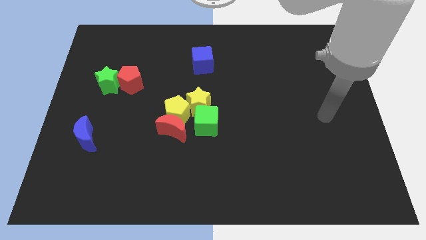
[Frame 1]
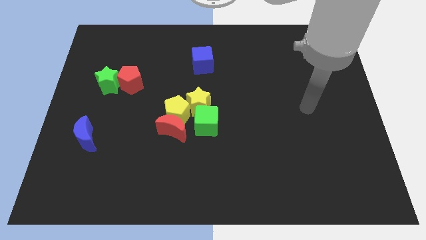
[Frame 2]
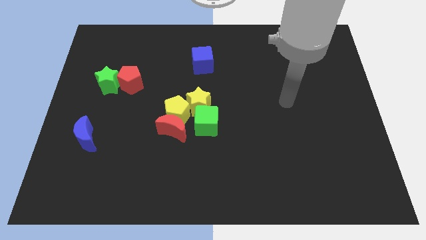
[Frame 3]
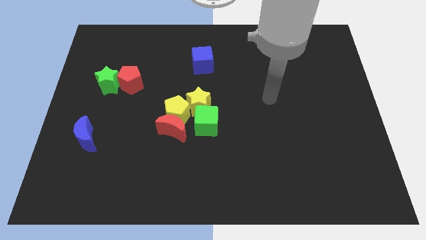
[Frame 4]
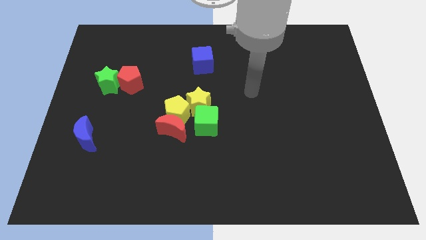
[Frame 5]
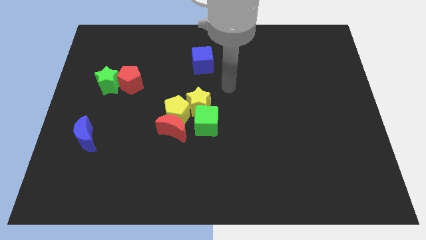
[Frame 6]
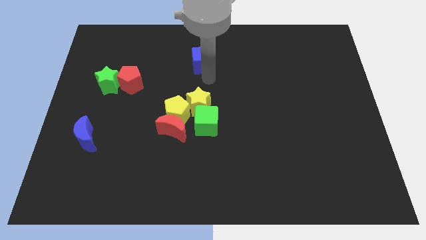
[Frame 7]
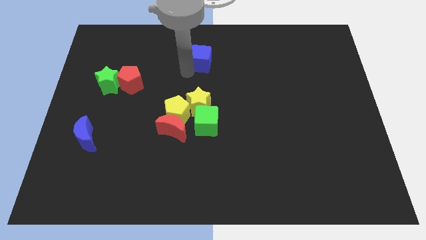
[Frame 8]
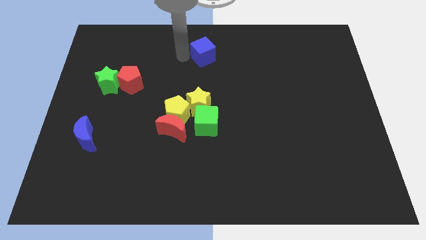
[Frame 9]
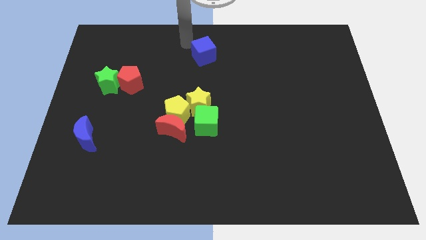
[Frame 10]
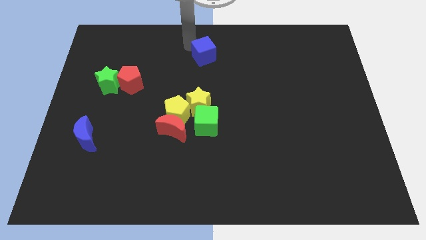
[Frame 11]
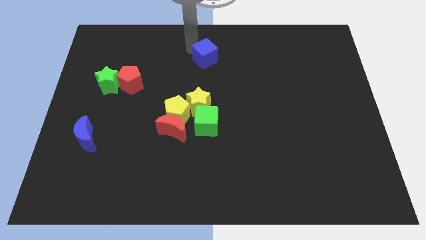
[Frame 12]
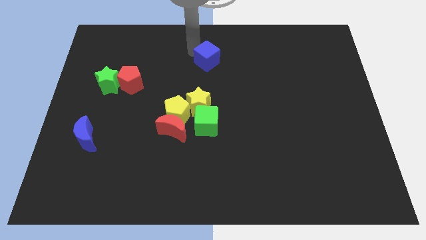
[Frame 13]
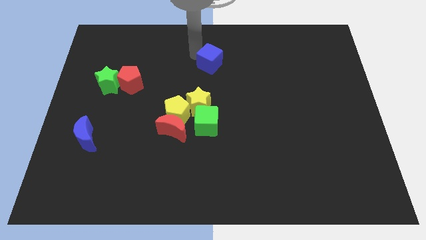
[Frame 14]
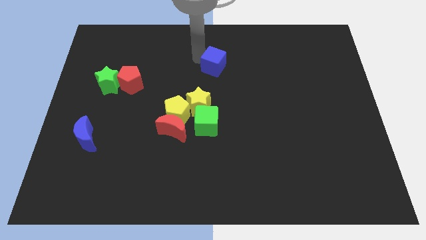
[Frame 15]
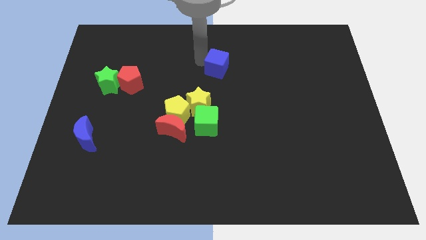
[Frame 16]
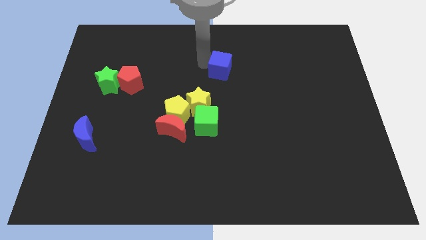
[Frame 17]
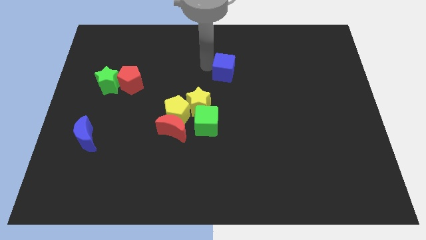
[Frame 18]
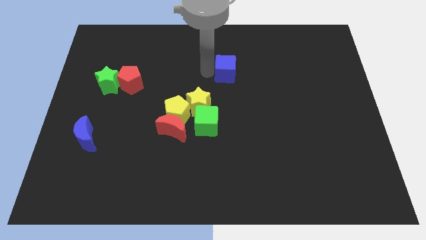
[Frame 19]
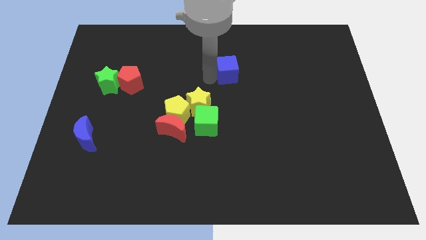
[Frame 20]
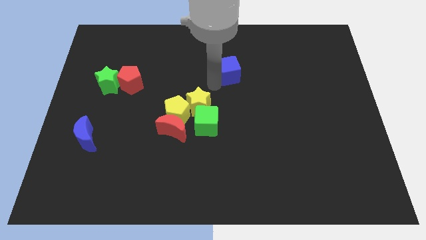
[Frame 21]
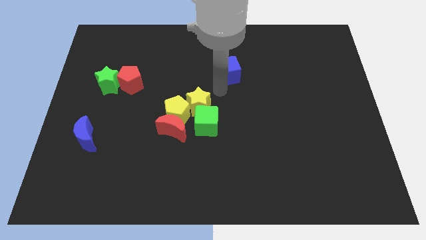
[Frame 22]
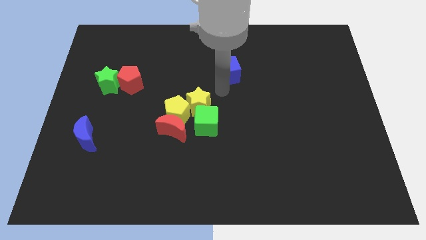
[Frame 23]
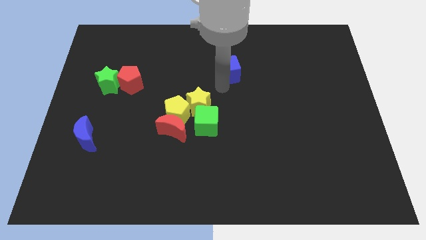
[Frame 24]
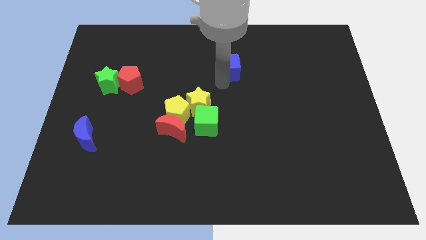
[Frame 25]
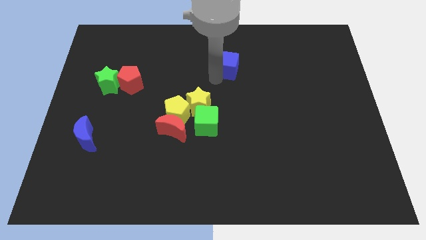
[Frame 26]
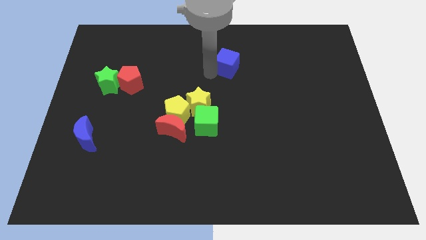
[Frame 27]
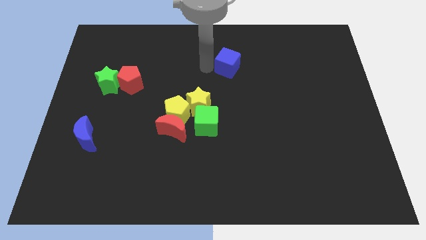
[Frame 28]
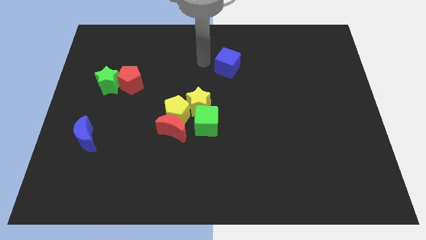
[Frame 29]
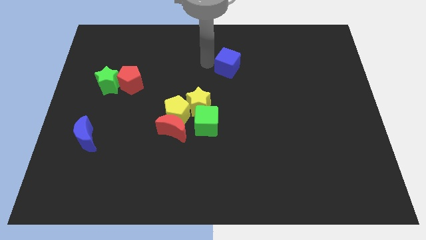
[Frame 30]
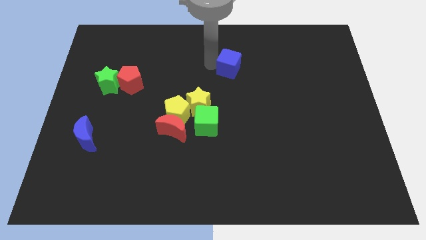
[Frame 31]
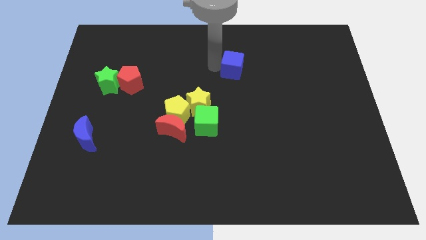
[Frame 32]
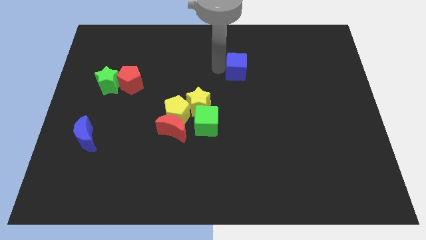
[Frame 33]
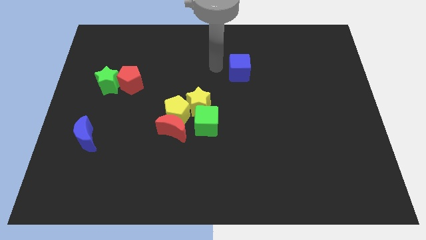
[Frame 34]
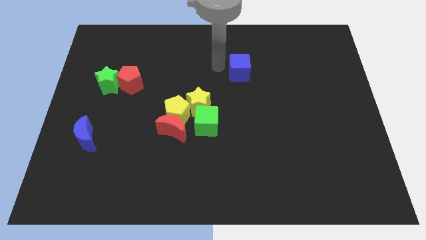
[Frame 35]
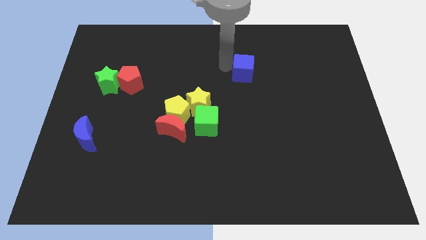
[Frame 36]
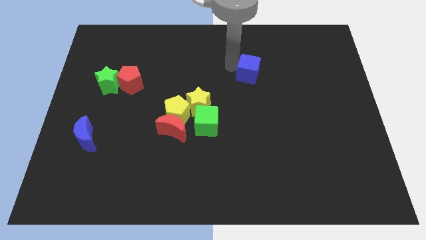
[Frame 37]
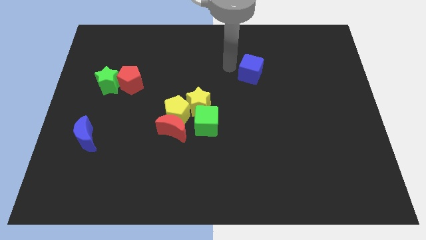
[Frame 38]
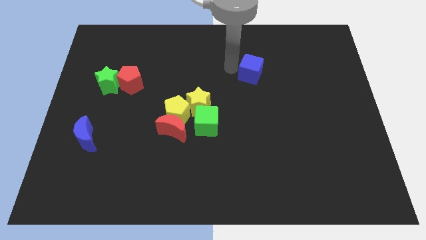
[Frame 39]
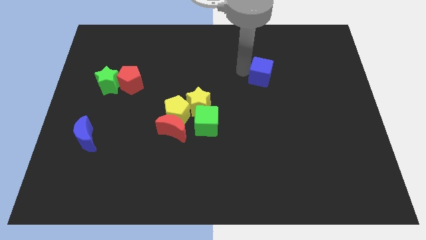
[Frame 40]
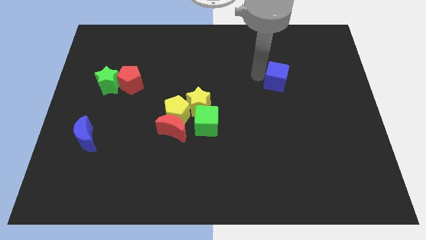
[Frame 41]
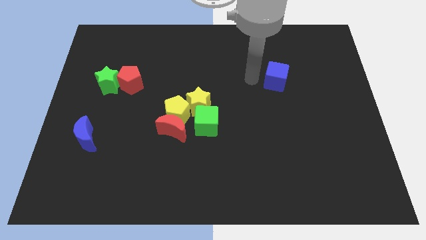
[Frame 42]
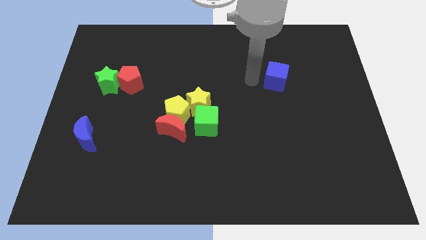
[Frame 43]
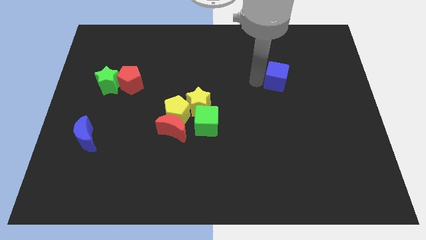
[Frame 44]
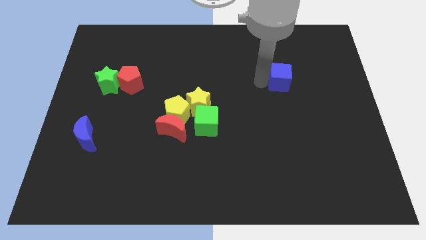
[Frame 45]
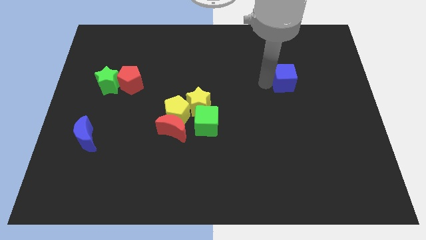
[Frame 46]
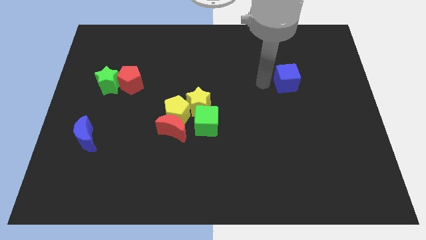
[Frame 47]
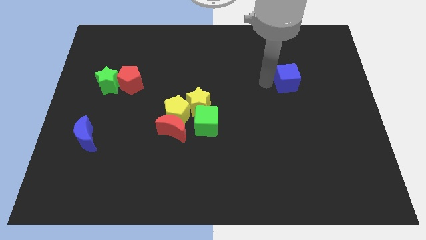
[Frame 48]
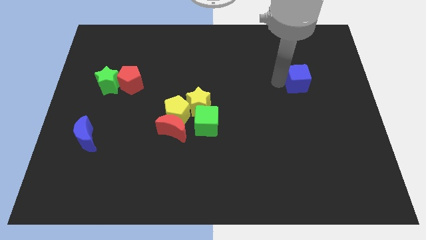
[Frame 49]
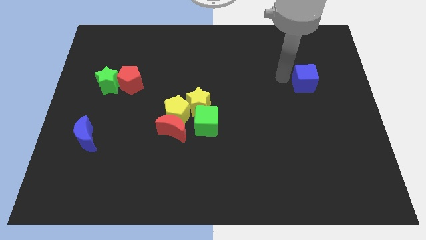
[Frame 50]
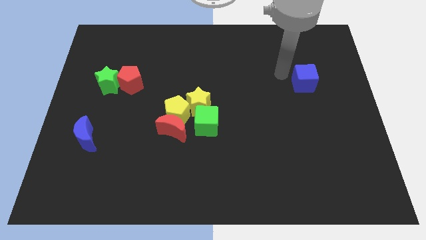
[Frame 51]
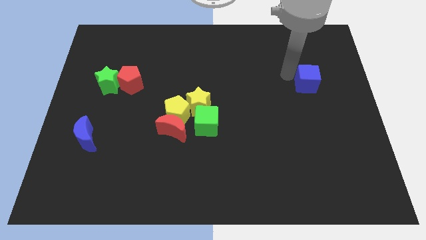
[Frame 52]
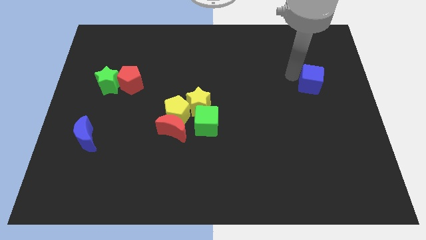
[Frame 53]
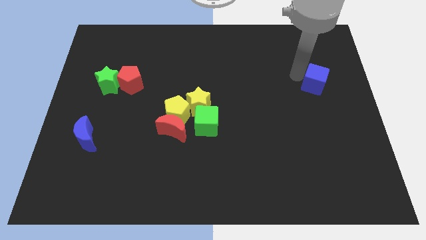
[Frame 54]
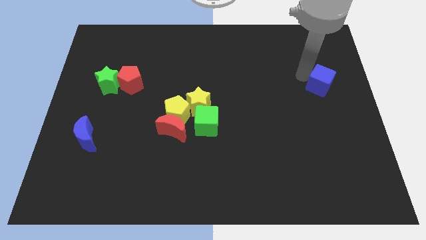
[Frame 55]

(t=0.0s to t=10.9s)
move the blue cube to the right side of the board

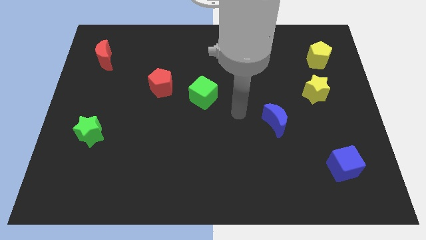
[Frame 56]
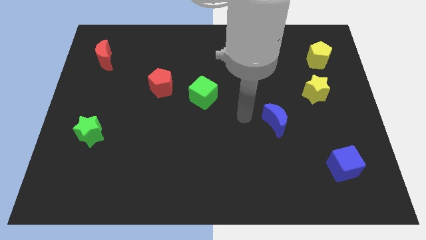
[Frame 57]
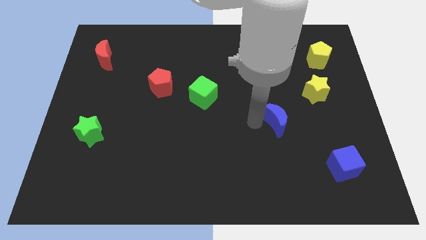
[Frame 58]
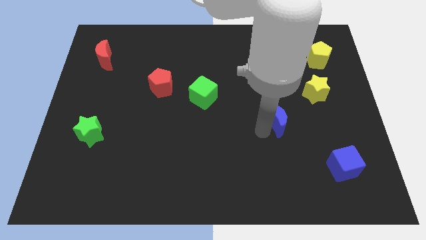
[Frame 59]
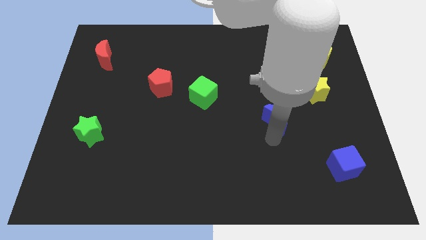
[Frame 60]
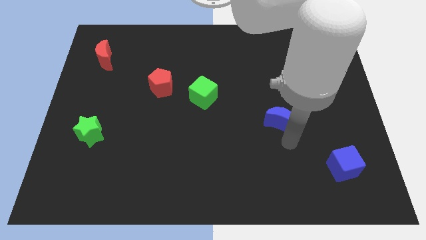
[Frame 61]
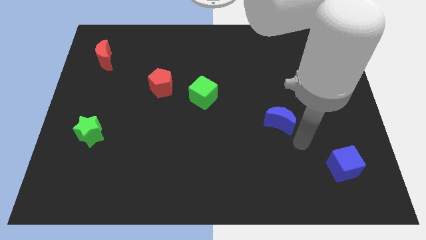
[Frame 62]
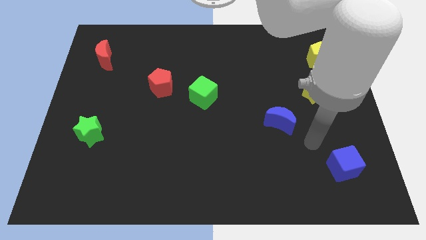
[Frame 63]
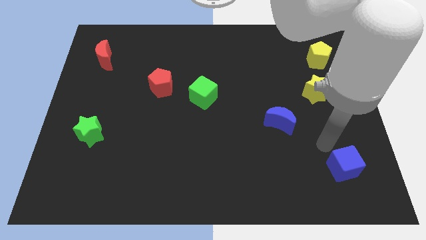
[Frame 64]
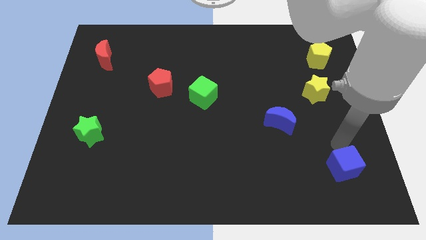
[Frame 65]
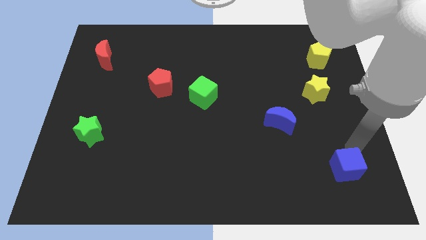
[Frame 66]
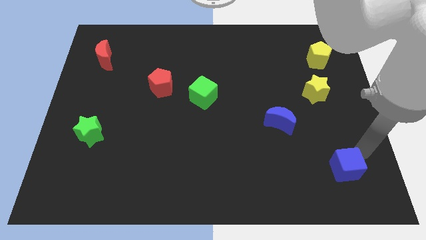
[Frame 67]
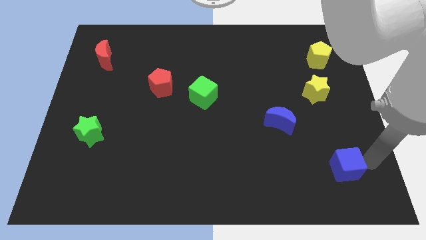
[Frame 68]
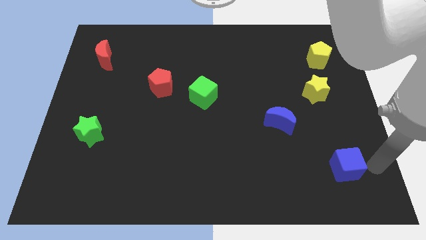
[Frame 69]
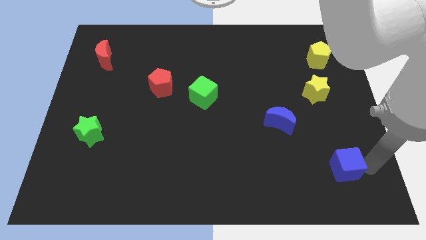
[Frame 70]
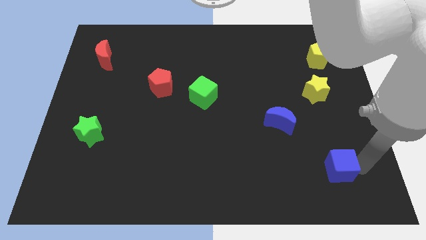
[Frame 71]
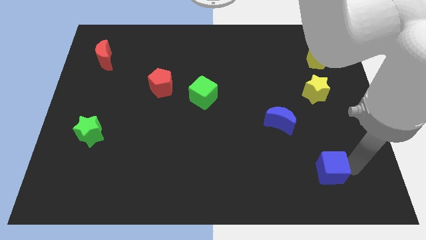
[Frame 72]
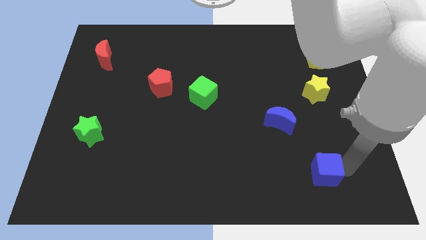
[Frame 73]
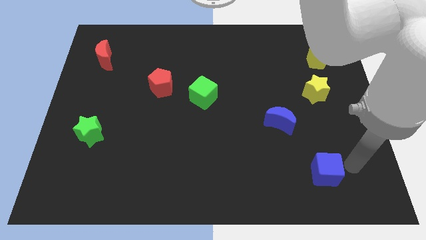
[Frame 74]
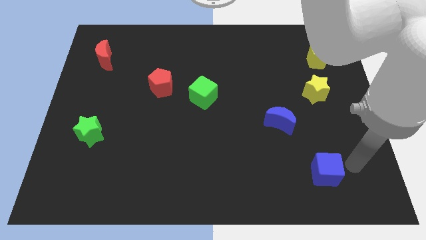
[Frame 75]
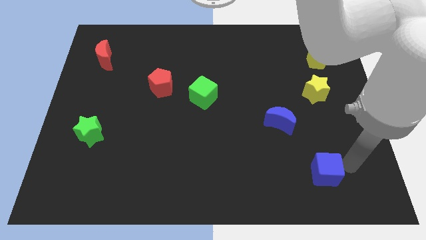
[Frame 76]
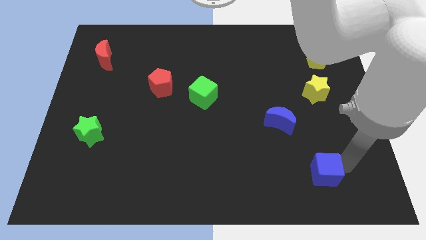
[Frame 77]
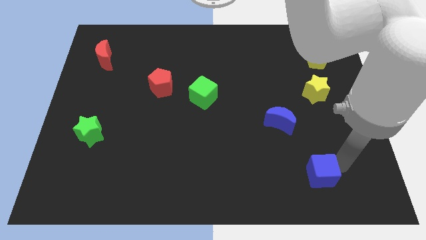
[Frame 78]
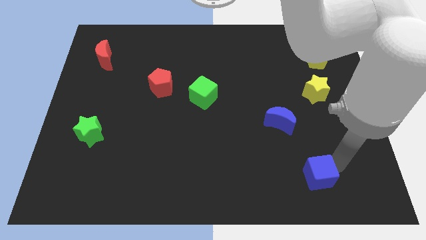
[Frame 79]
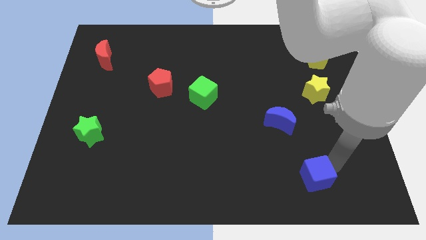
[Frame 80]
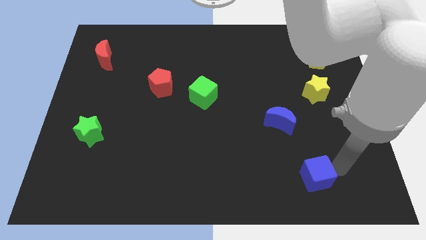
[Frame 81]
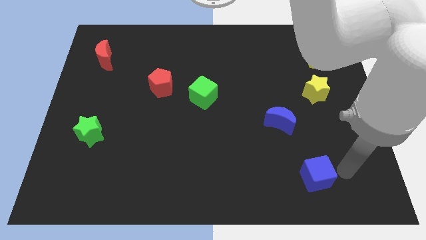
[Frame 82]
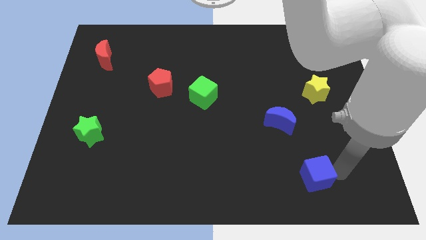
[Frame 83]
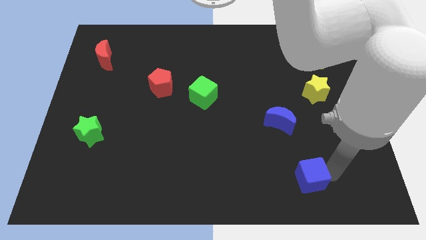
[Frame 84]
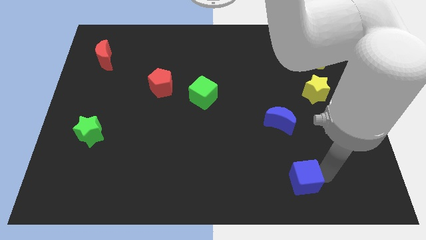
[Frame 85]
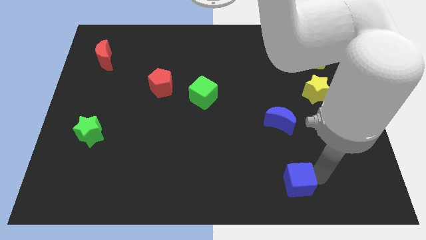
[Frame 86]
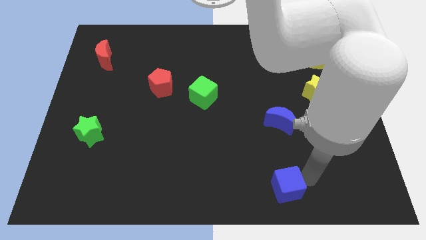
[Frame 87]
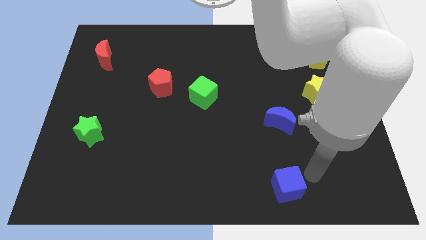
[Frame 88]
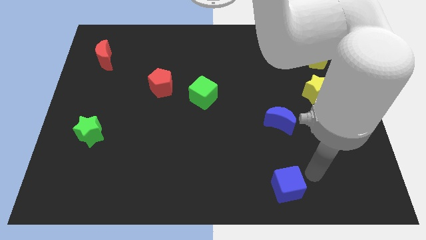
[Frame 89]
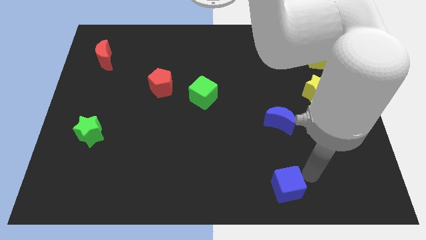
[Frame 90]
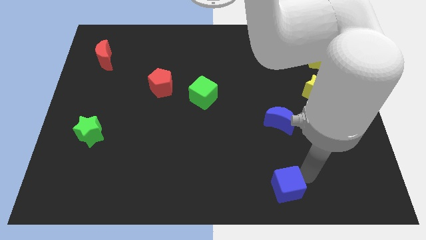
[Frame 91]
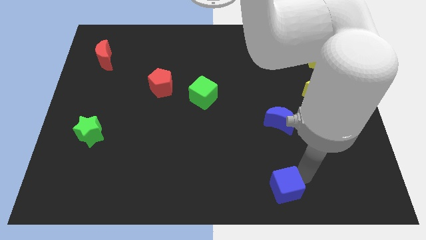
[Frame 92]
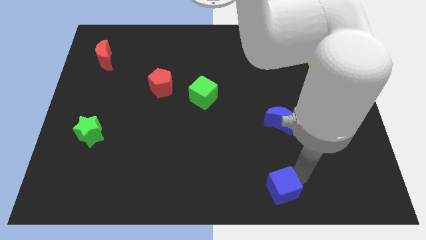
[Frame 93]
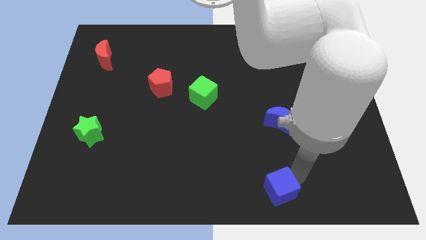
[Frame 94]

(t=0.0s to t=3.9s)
put the blue cube to the bottom
